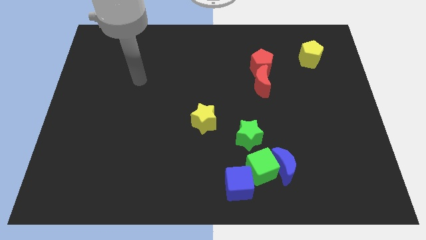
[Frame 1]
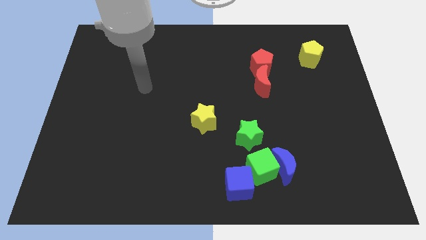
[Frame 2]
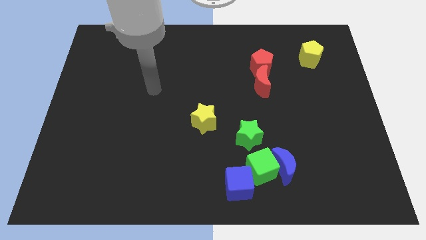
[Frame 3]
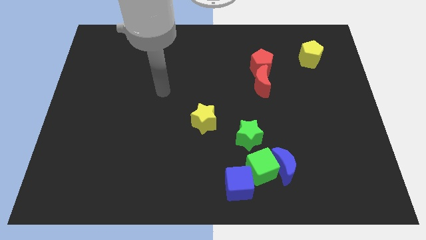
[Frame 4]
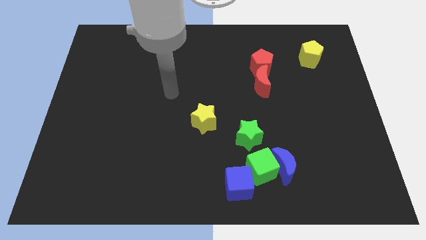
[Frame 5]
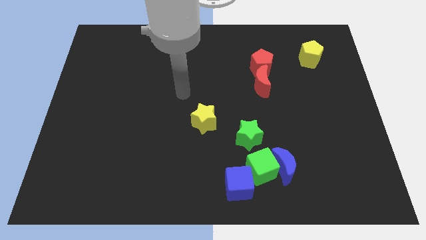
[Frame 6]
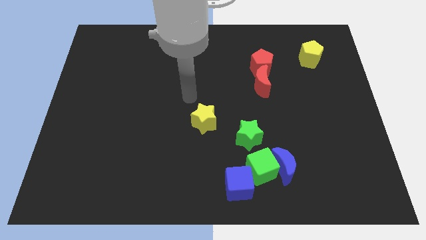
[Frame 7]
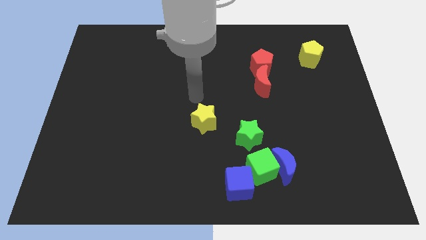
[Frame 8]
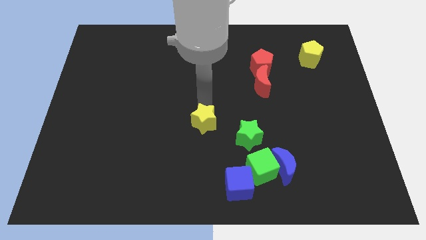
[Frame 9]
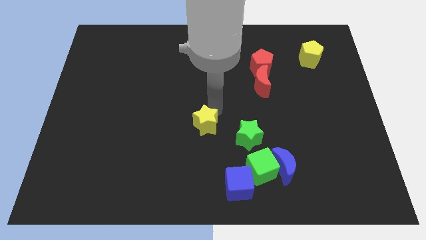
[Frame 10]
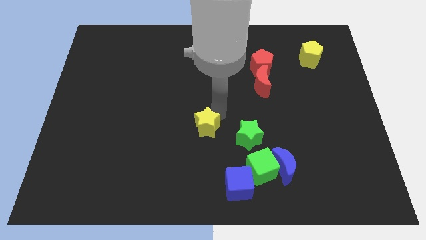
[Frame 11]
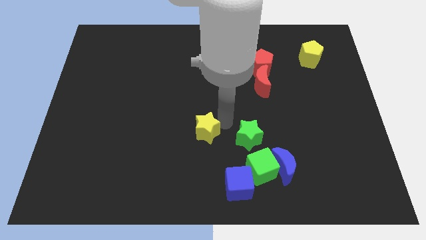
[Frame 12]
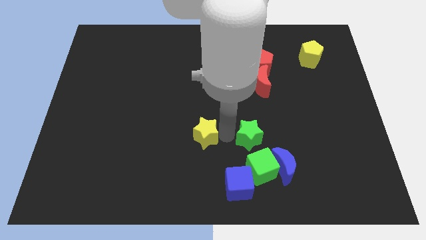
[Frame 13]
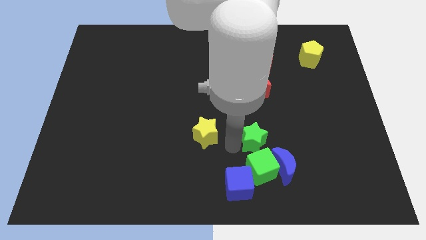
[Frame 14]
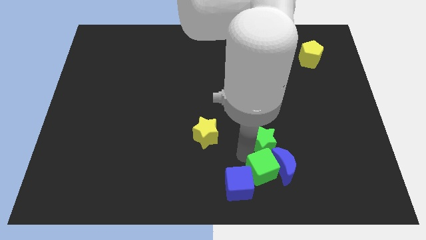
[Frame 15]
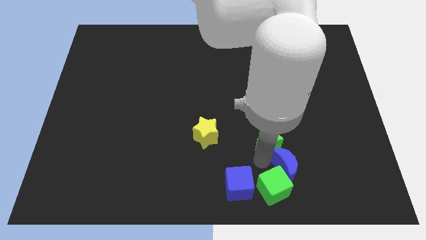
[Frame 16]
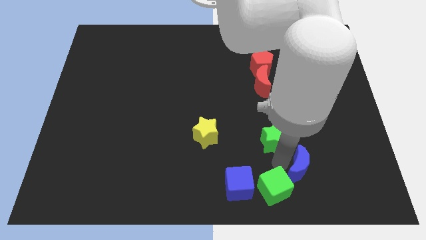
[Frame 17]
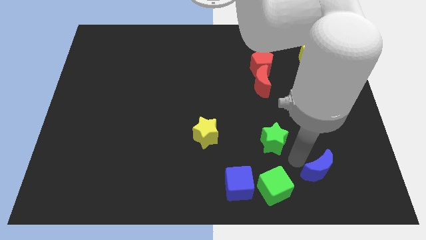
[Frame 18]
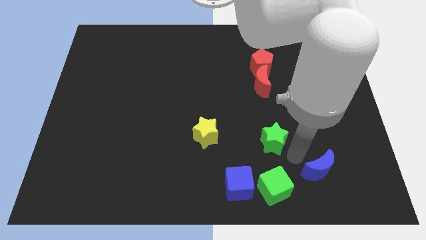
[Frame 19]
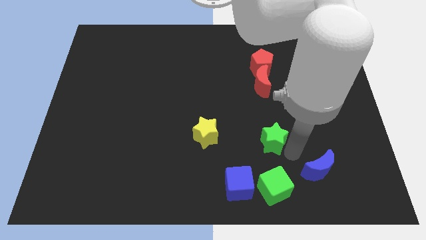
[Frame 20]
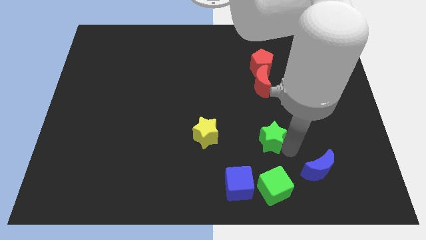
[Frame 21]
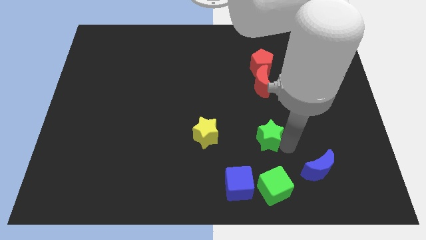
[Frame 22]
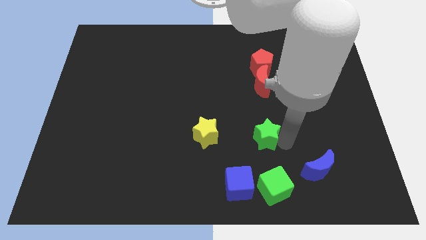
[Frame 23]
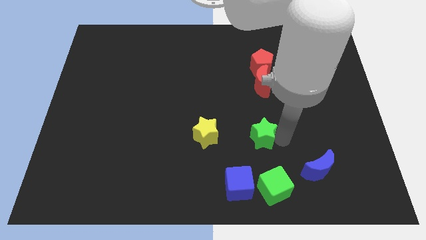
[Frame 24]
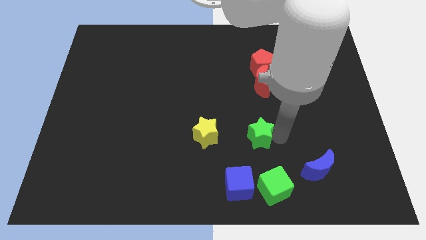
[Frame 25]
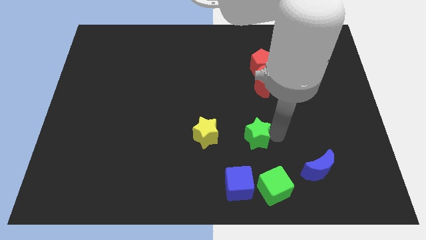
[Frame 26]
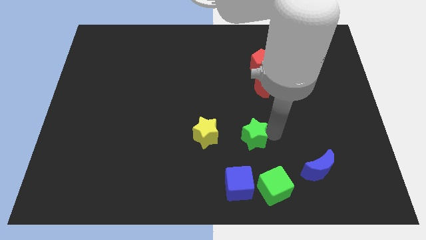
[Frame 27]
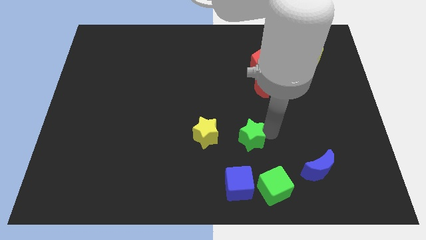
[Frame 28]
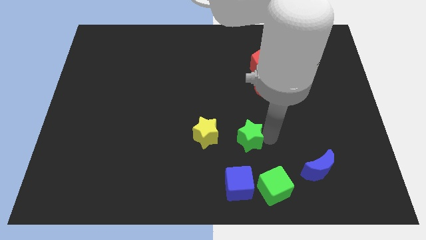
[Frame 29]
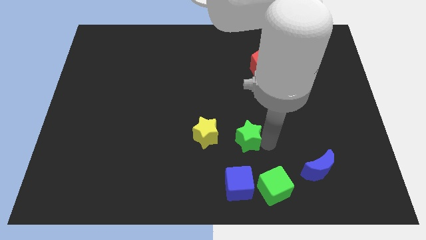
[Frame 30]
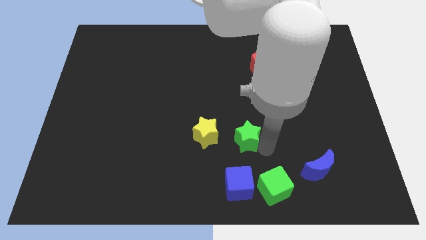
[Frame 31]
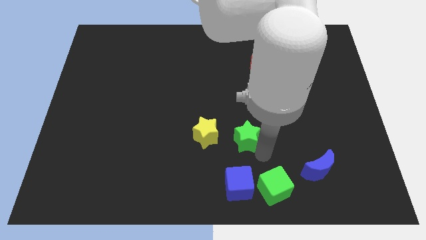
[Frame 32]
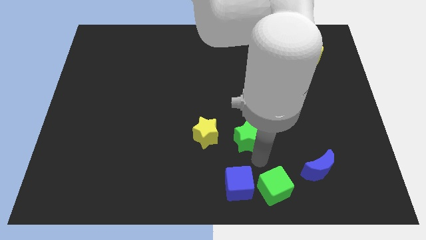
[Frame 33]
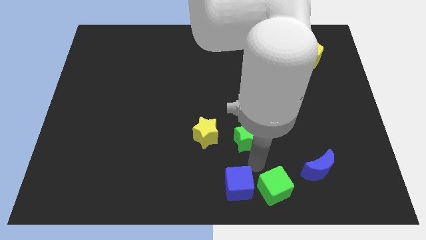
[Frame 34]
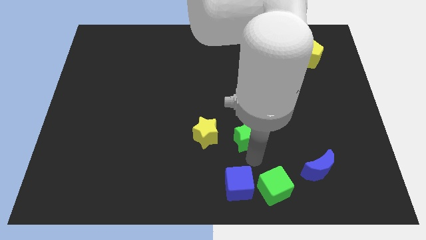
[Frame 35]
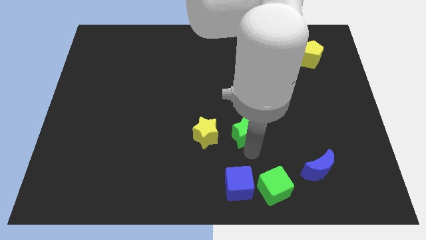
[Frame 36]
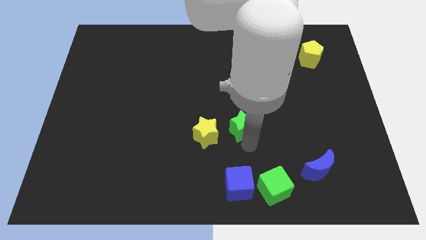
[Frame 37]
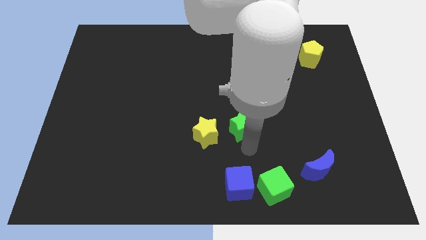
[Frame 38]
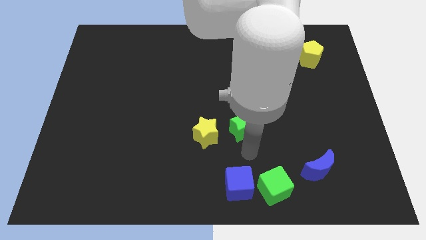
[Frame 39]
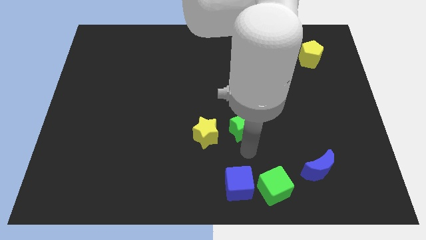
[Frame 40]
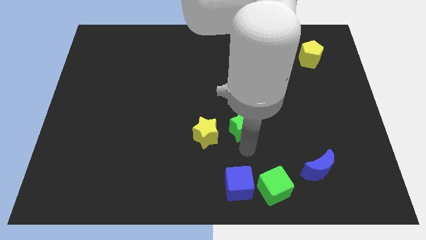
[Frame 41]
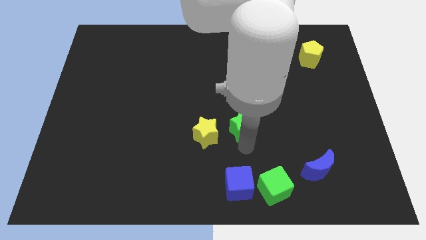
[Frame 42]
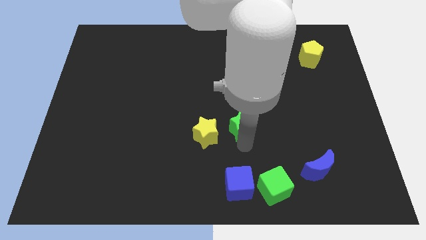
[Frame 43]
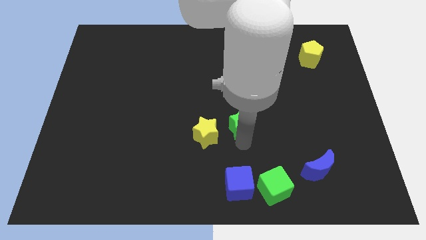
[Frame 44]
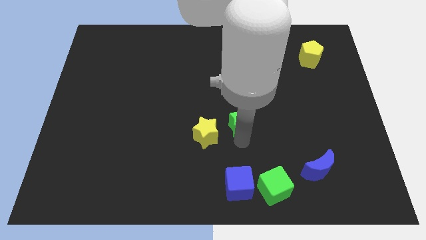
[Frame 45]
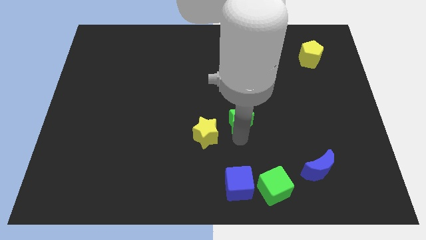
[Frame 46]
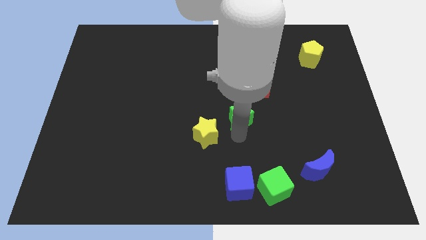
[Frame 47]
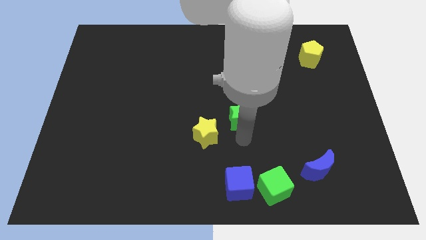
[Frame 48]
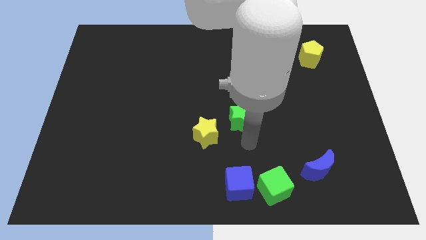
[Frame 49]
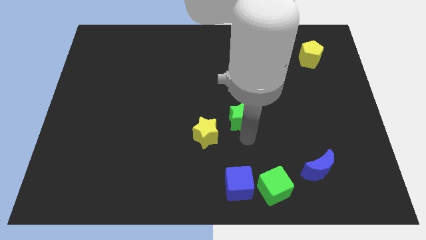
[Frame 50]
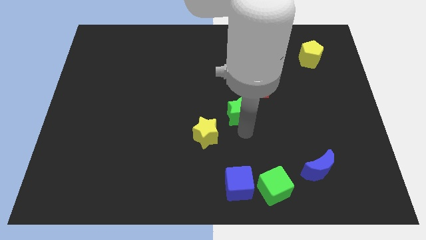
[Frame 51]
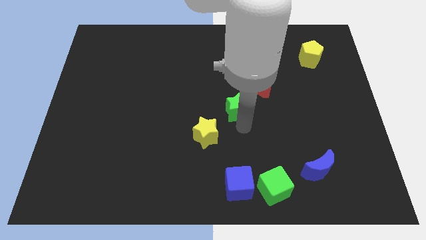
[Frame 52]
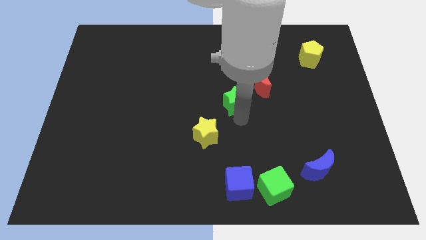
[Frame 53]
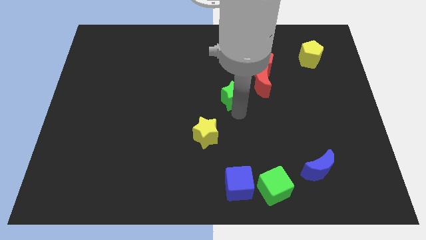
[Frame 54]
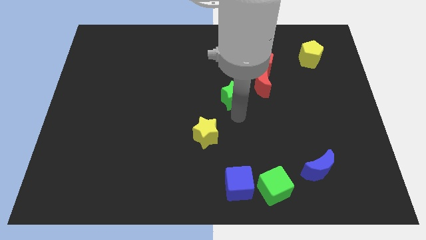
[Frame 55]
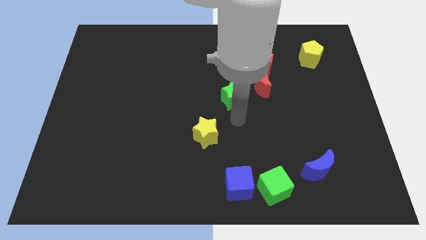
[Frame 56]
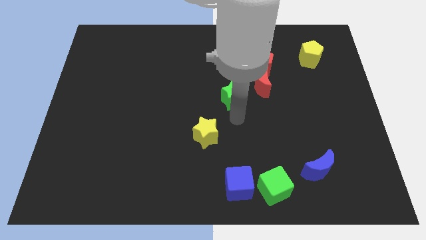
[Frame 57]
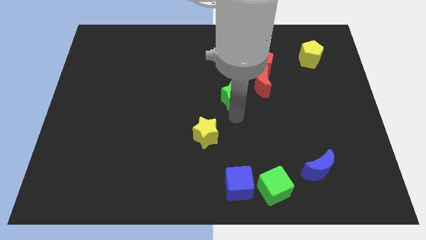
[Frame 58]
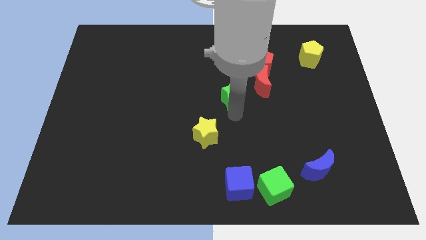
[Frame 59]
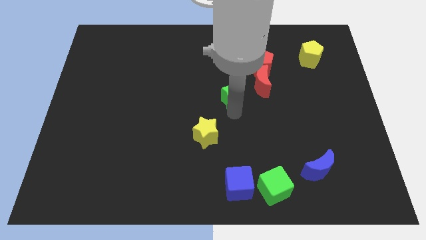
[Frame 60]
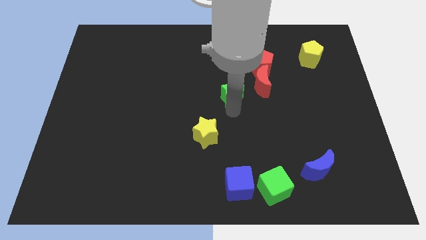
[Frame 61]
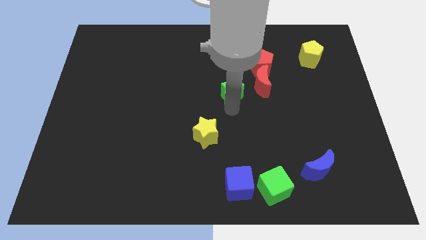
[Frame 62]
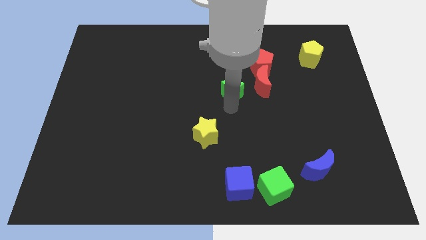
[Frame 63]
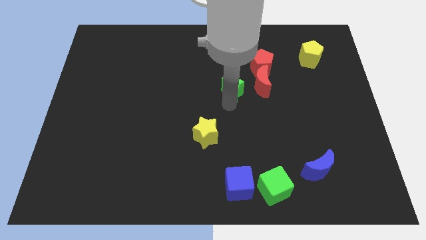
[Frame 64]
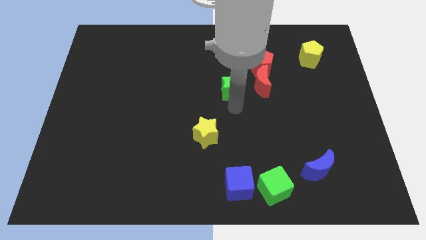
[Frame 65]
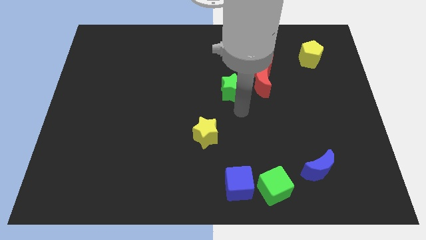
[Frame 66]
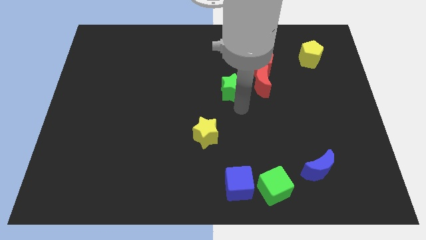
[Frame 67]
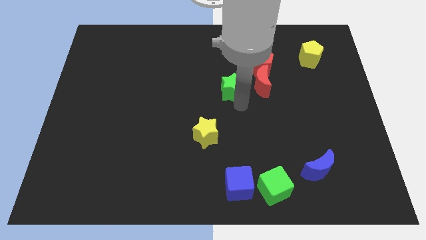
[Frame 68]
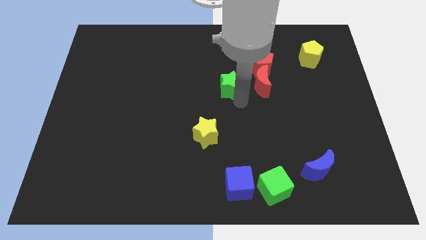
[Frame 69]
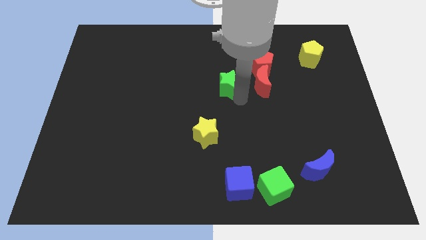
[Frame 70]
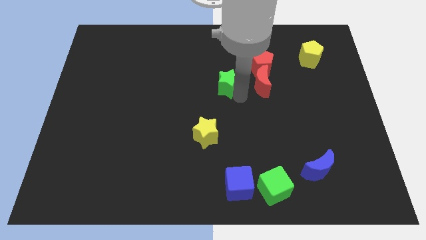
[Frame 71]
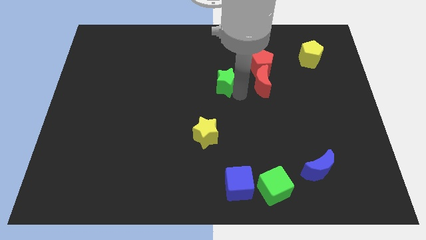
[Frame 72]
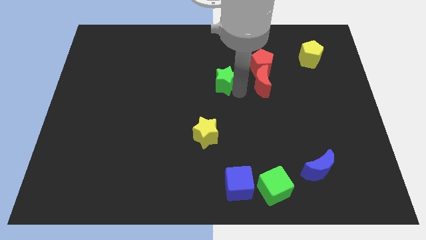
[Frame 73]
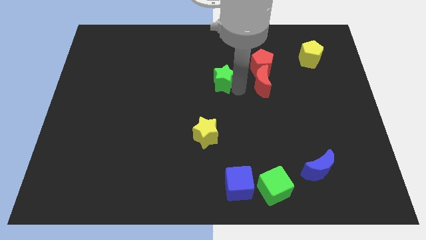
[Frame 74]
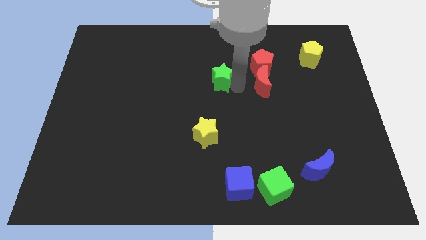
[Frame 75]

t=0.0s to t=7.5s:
move the green star to the left of the red pentagon

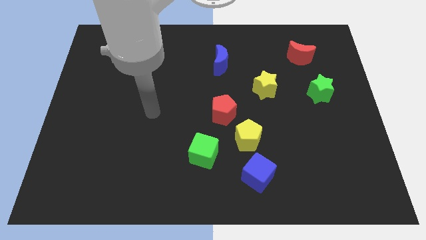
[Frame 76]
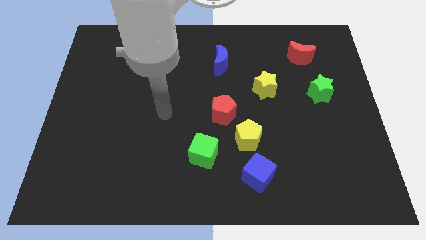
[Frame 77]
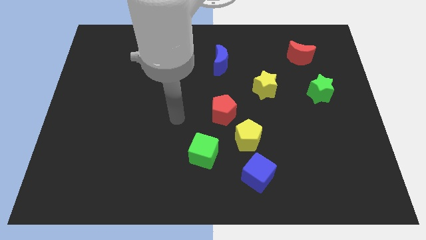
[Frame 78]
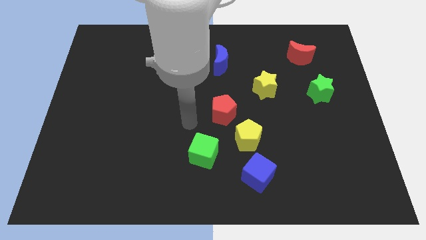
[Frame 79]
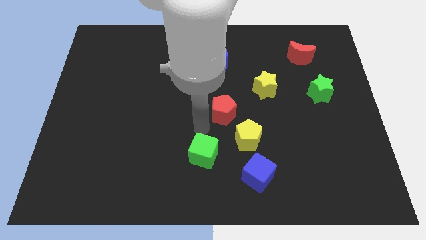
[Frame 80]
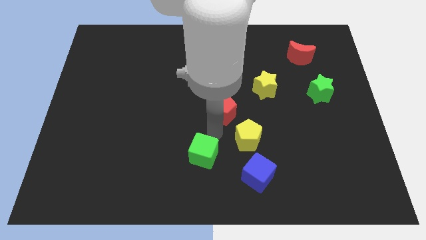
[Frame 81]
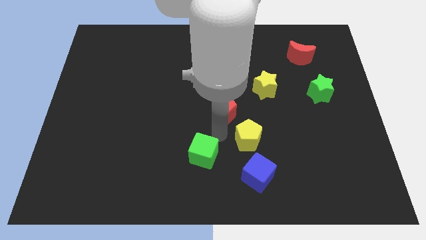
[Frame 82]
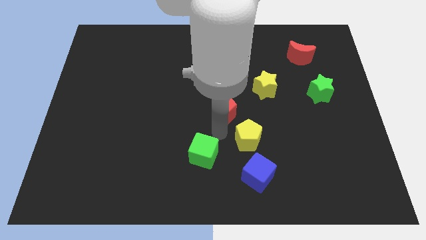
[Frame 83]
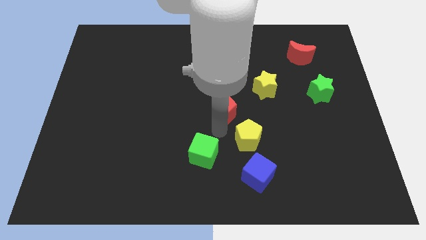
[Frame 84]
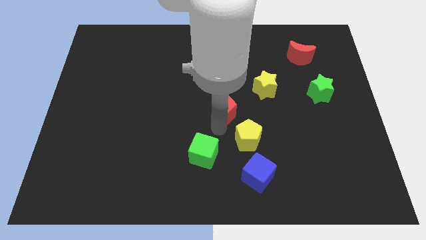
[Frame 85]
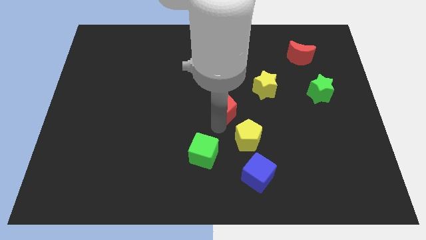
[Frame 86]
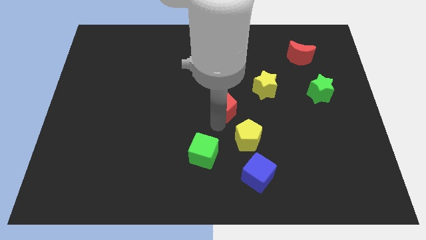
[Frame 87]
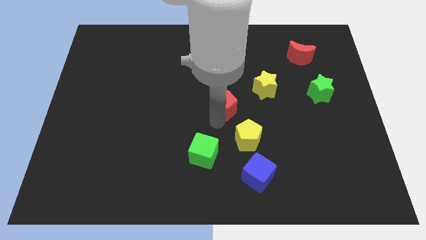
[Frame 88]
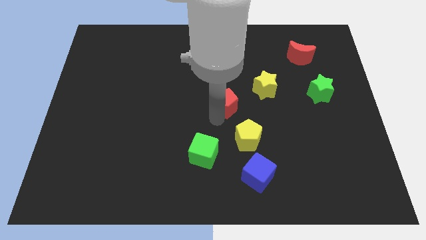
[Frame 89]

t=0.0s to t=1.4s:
put the red pentagon to the left of the yellow star
